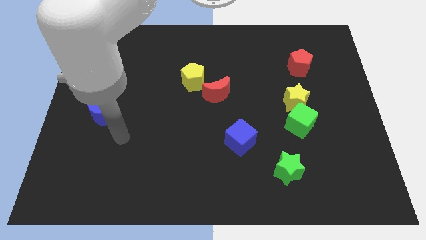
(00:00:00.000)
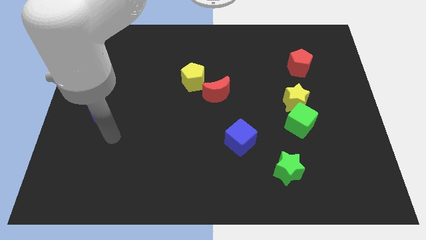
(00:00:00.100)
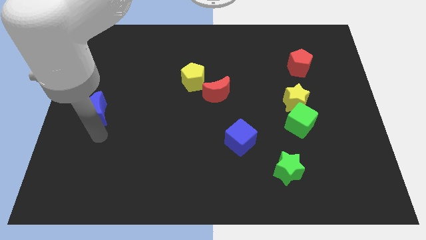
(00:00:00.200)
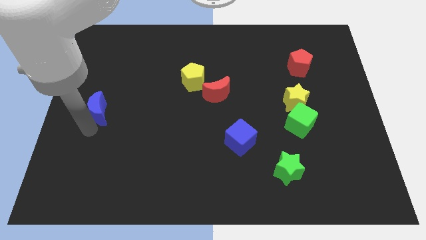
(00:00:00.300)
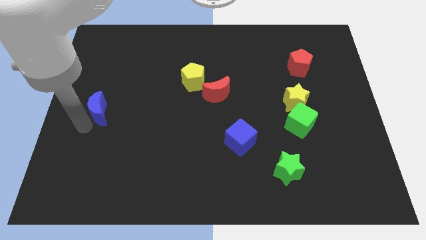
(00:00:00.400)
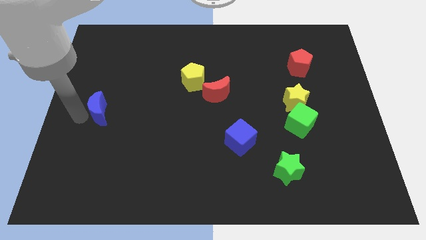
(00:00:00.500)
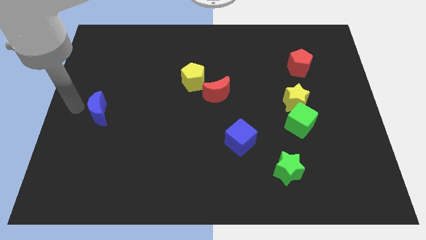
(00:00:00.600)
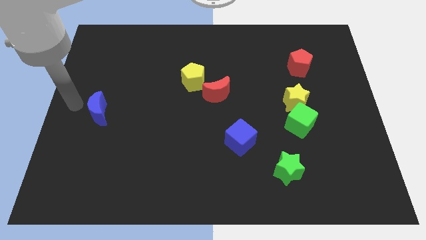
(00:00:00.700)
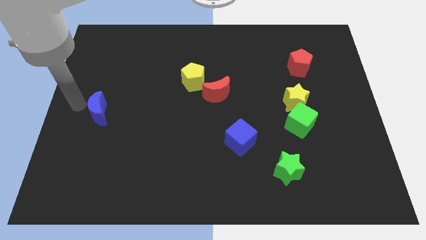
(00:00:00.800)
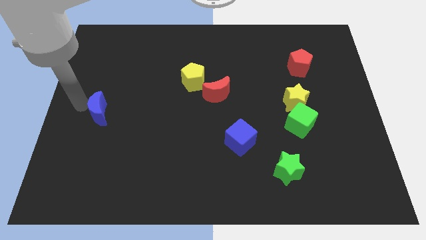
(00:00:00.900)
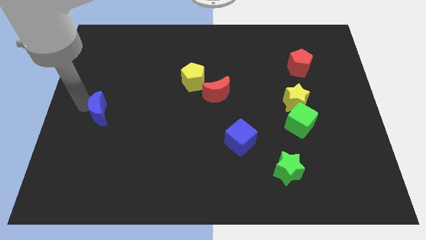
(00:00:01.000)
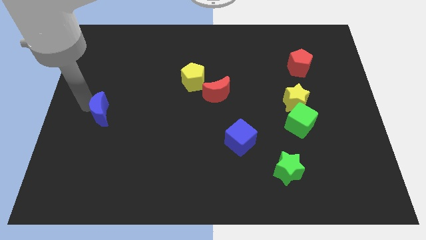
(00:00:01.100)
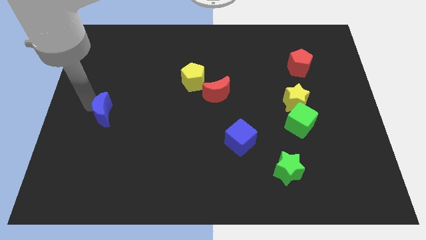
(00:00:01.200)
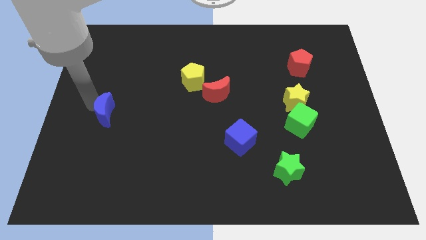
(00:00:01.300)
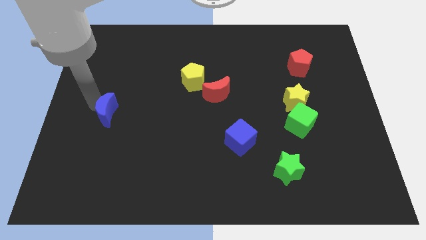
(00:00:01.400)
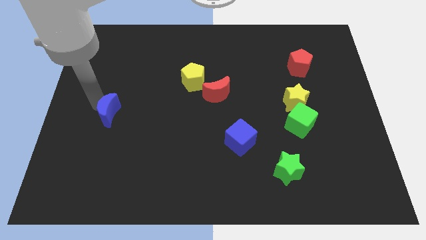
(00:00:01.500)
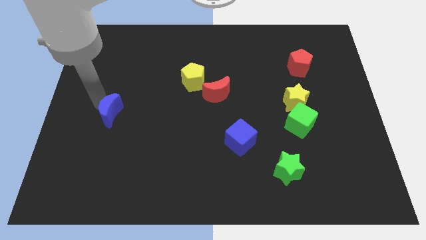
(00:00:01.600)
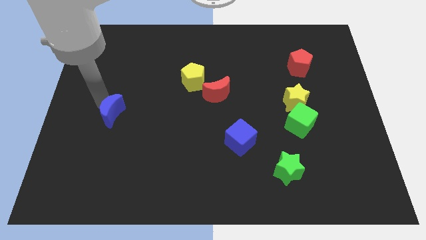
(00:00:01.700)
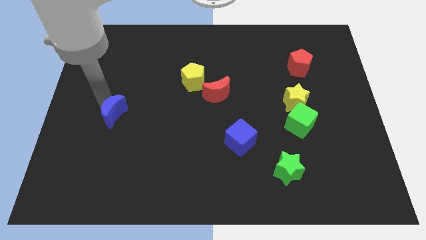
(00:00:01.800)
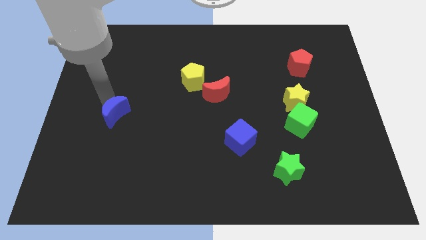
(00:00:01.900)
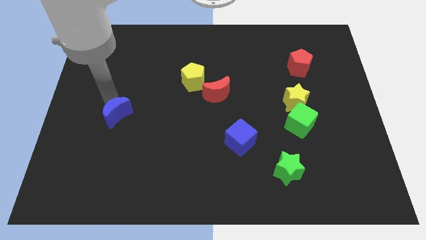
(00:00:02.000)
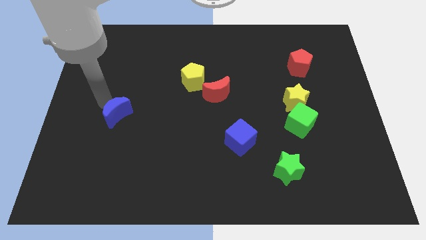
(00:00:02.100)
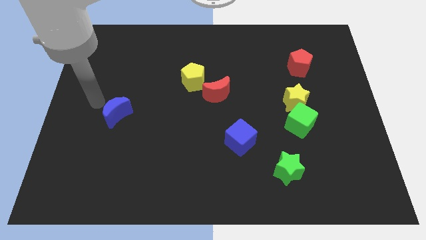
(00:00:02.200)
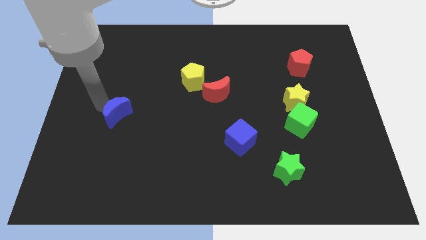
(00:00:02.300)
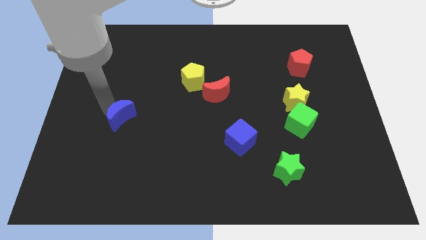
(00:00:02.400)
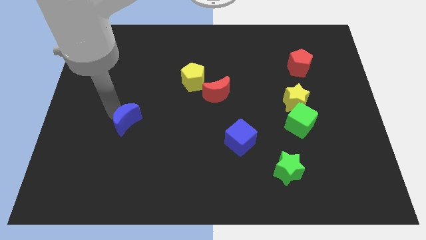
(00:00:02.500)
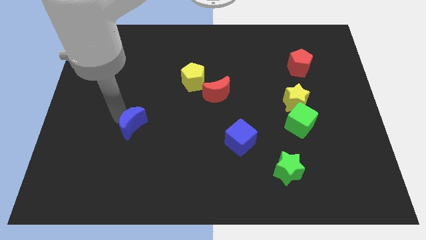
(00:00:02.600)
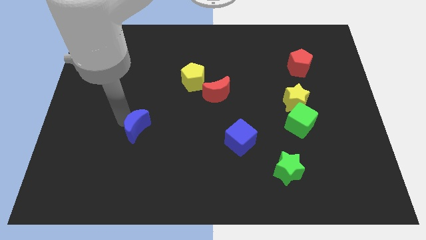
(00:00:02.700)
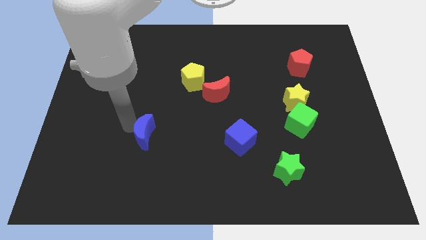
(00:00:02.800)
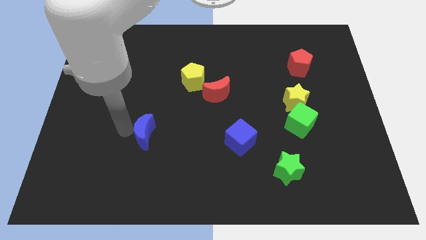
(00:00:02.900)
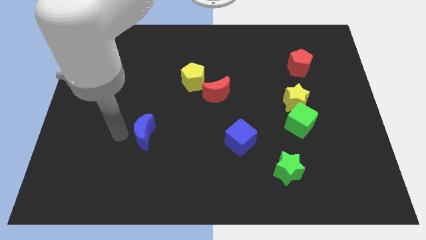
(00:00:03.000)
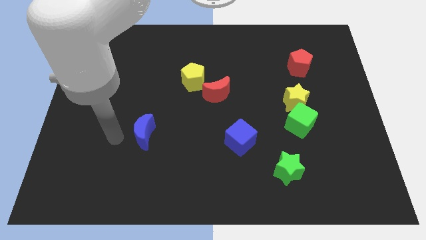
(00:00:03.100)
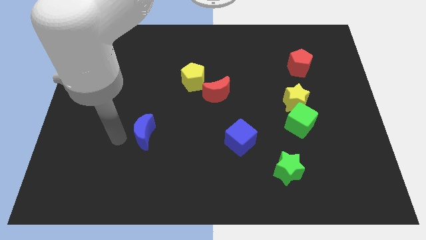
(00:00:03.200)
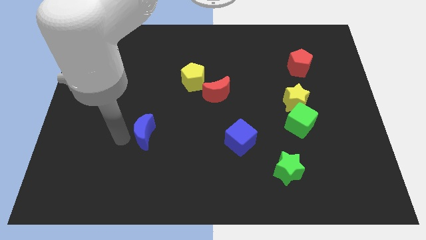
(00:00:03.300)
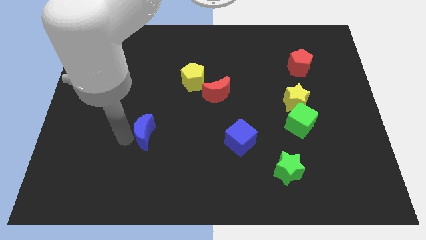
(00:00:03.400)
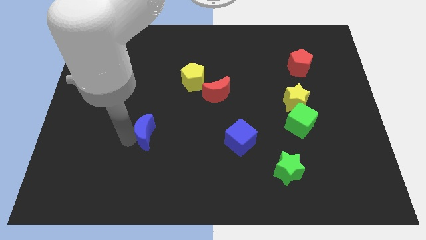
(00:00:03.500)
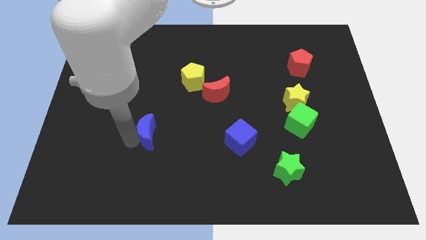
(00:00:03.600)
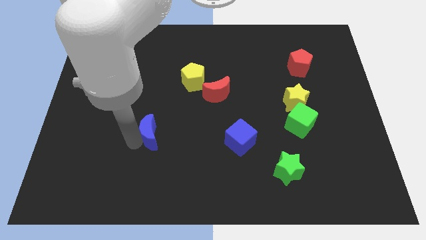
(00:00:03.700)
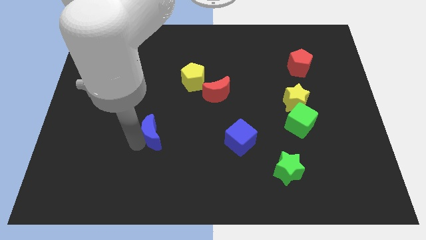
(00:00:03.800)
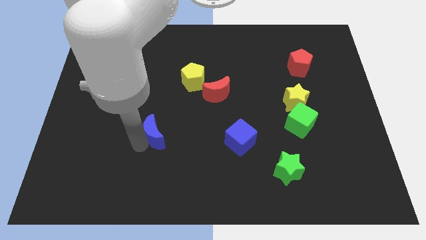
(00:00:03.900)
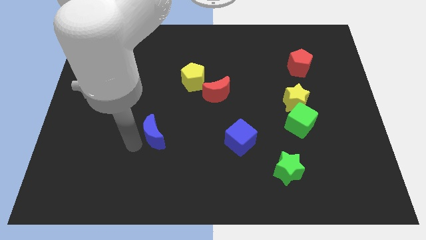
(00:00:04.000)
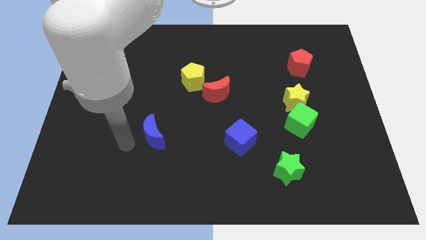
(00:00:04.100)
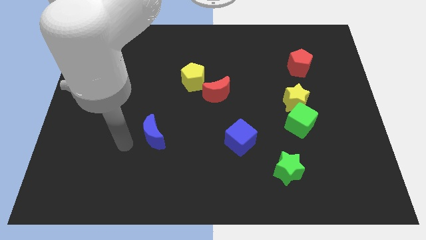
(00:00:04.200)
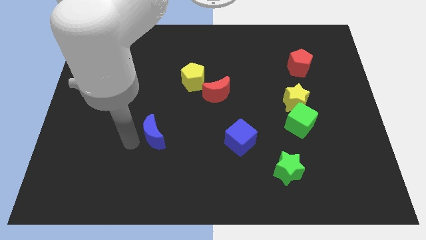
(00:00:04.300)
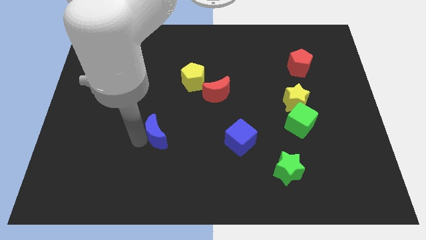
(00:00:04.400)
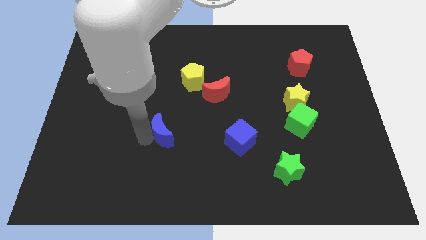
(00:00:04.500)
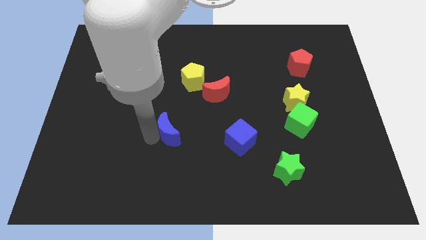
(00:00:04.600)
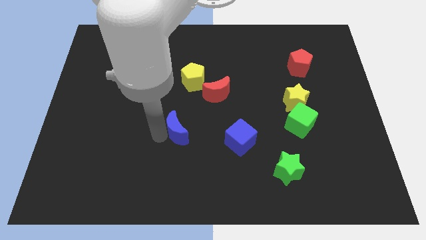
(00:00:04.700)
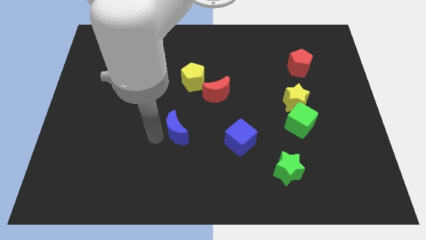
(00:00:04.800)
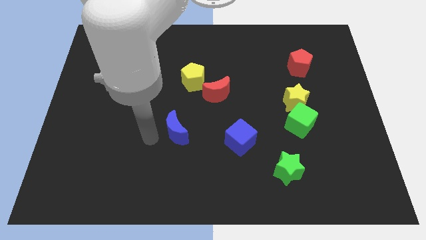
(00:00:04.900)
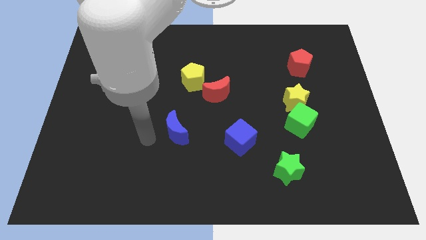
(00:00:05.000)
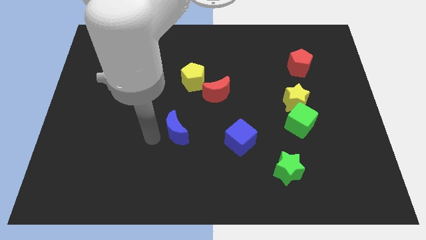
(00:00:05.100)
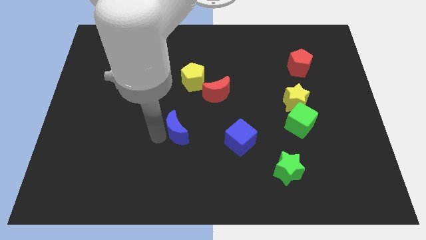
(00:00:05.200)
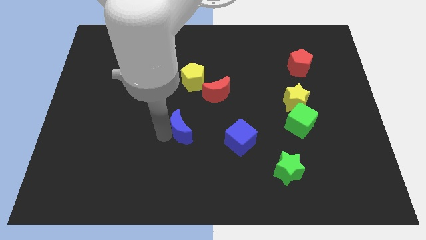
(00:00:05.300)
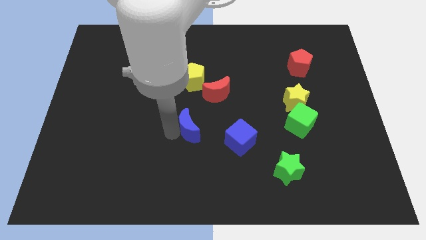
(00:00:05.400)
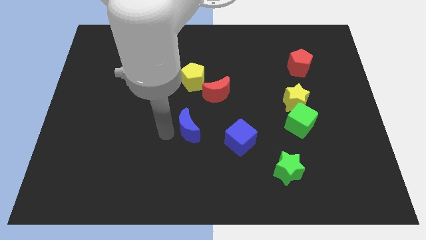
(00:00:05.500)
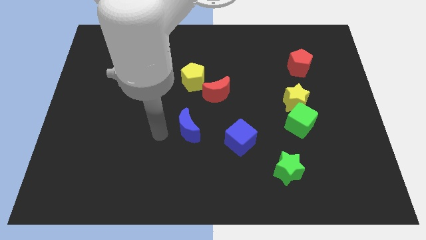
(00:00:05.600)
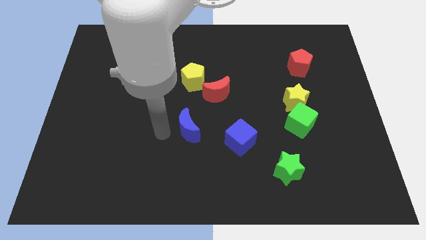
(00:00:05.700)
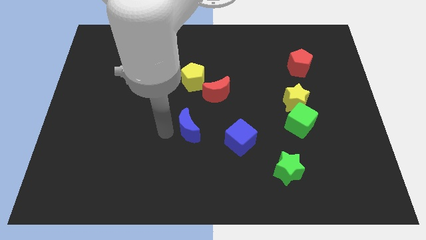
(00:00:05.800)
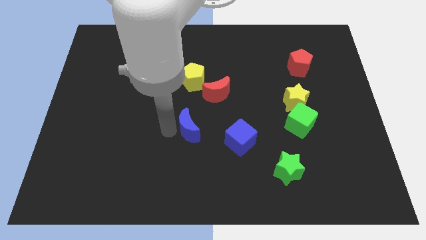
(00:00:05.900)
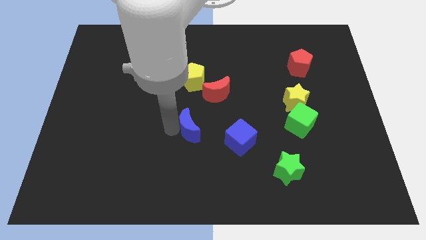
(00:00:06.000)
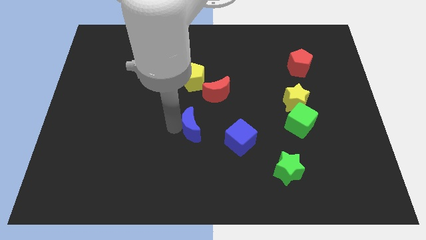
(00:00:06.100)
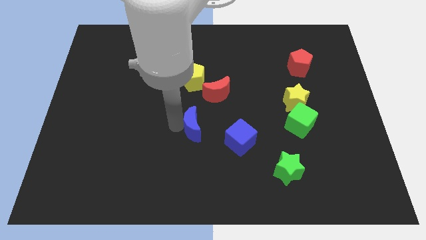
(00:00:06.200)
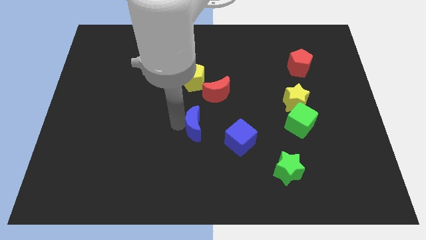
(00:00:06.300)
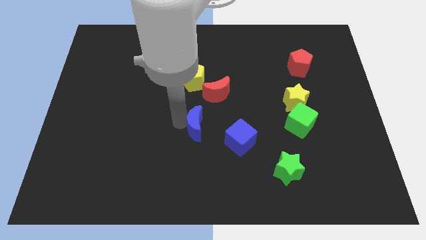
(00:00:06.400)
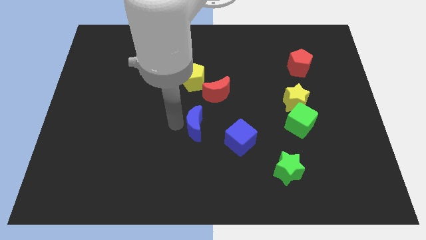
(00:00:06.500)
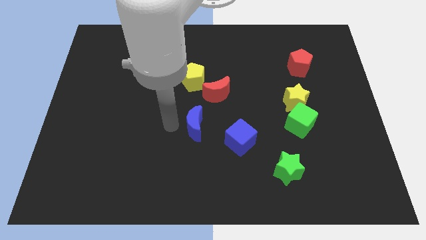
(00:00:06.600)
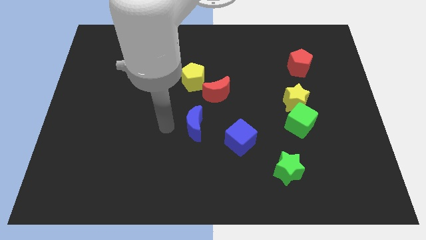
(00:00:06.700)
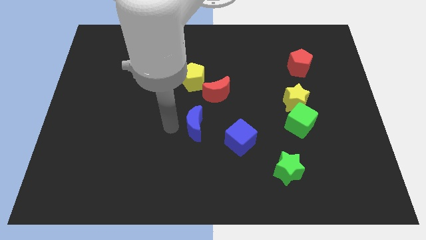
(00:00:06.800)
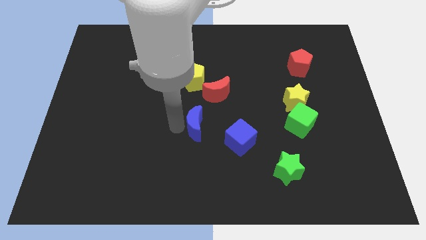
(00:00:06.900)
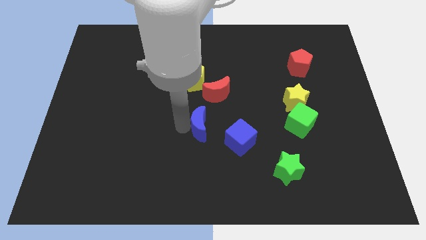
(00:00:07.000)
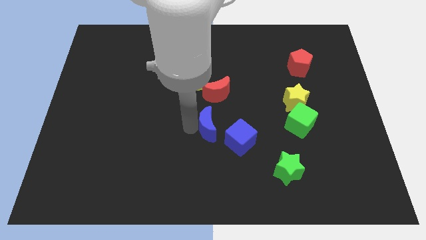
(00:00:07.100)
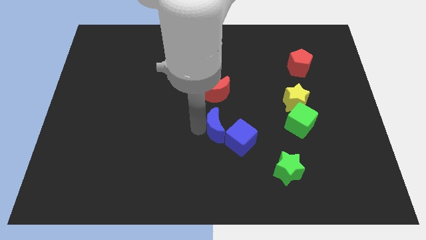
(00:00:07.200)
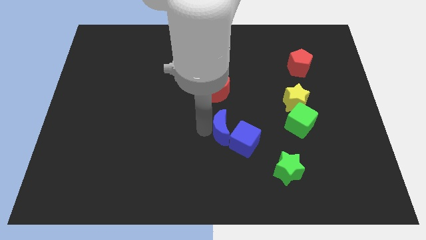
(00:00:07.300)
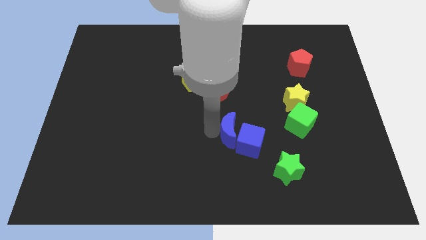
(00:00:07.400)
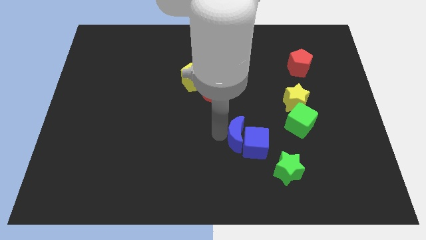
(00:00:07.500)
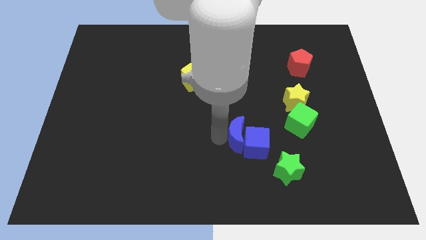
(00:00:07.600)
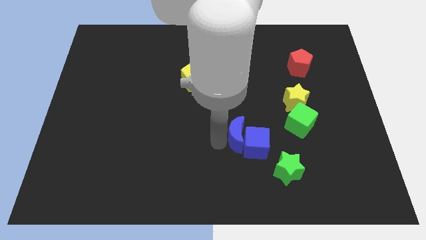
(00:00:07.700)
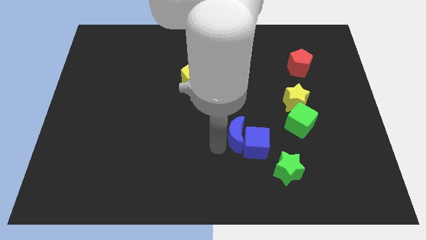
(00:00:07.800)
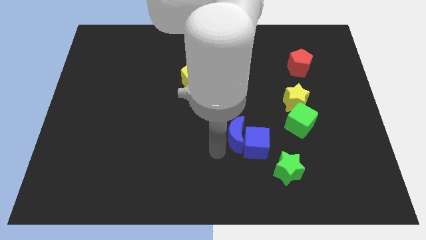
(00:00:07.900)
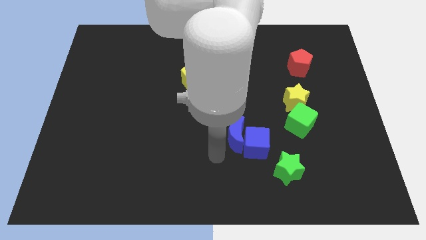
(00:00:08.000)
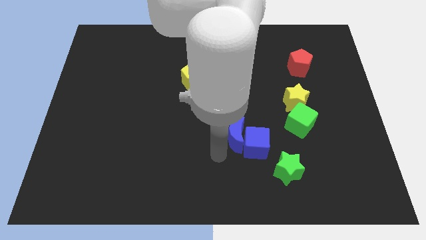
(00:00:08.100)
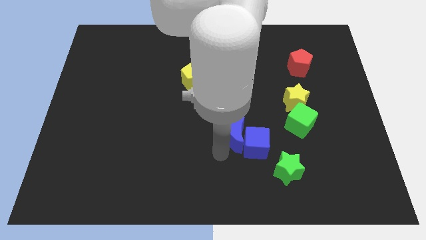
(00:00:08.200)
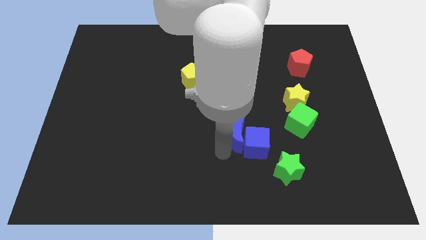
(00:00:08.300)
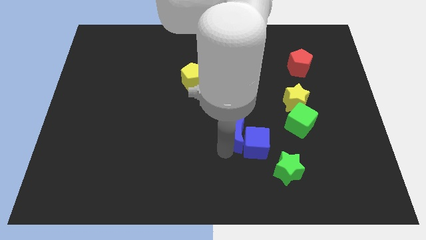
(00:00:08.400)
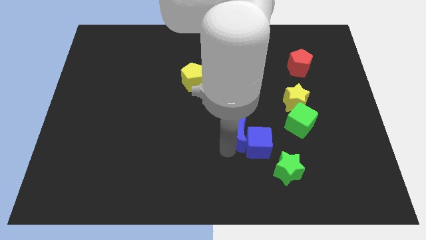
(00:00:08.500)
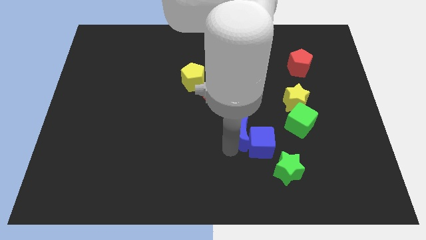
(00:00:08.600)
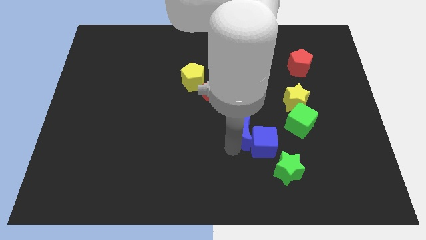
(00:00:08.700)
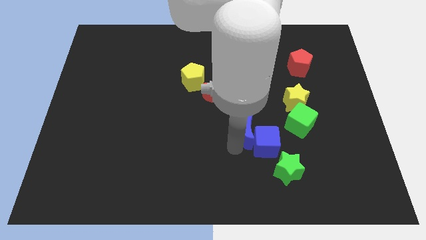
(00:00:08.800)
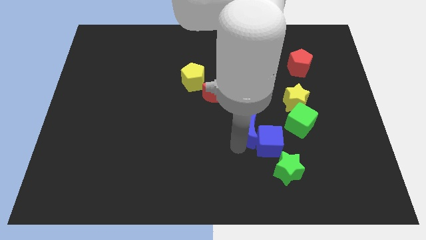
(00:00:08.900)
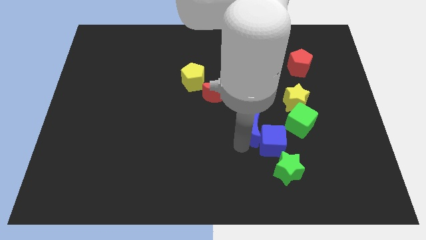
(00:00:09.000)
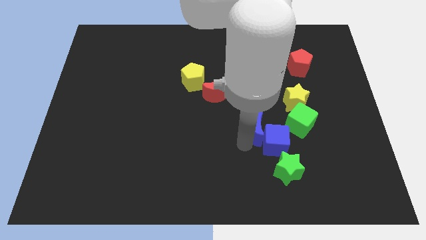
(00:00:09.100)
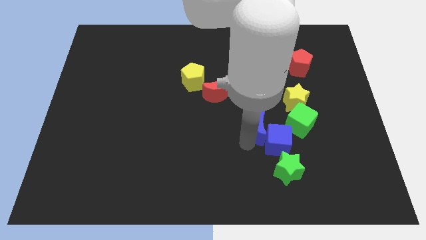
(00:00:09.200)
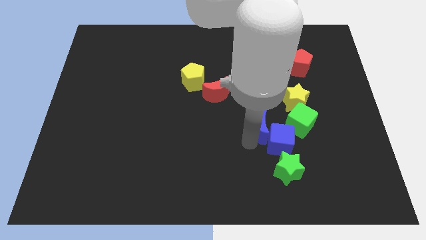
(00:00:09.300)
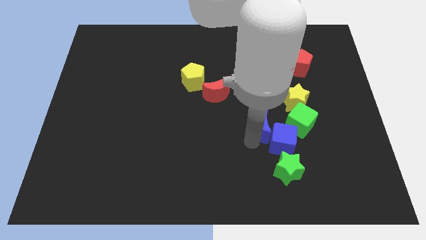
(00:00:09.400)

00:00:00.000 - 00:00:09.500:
slide the blue moon to the top of the green star
